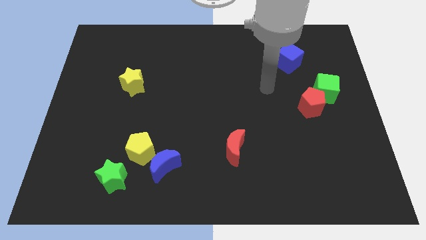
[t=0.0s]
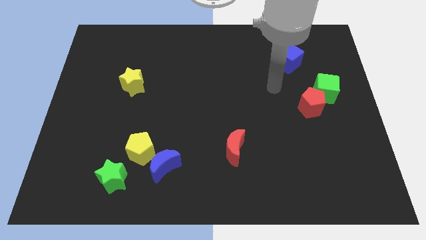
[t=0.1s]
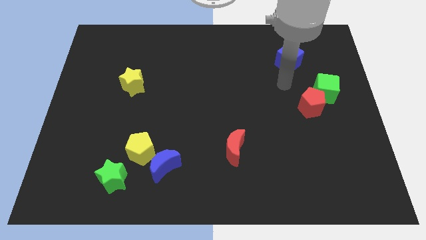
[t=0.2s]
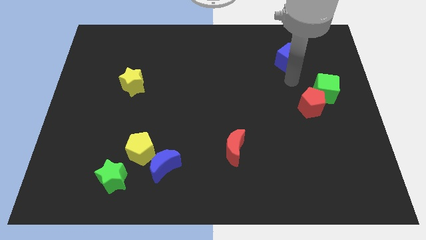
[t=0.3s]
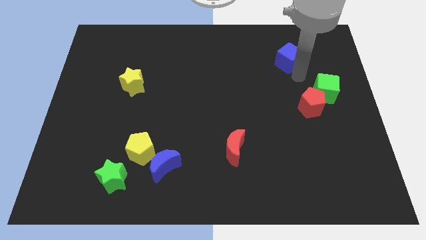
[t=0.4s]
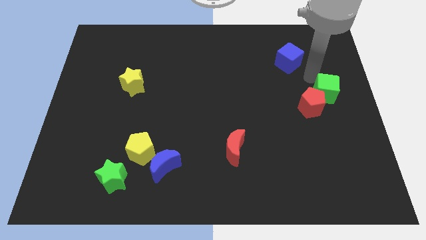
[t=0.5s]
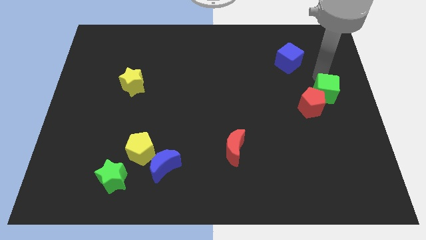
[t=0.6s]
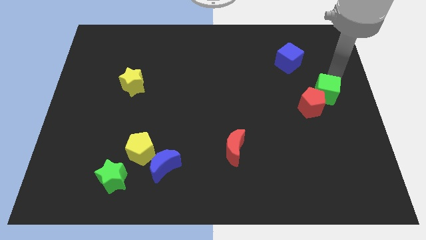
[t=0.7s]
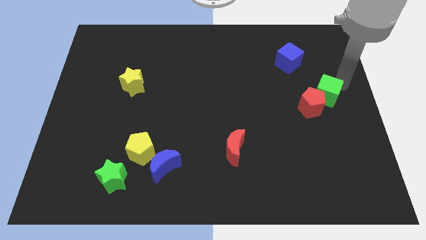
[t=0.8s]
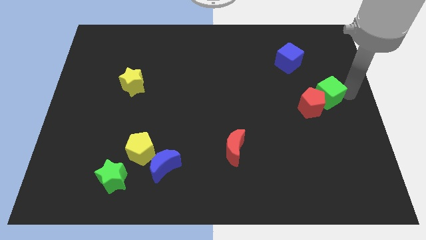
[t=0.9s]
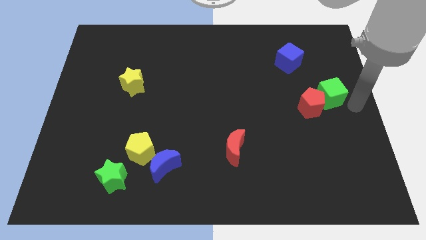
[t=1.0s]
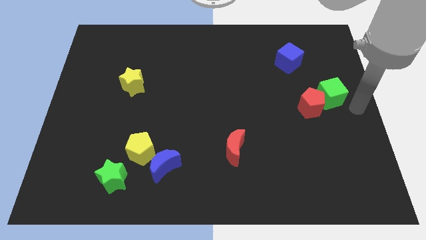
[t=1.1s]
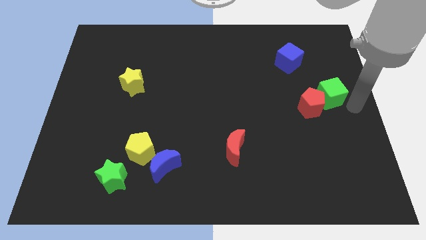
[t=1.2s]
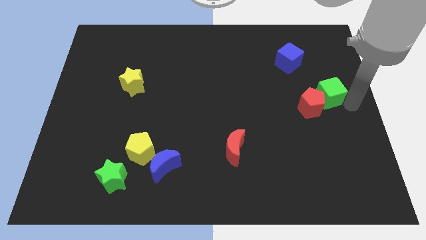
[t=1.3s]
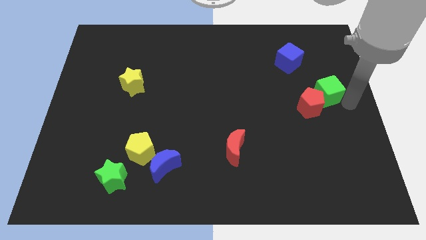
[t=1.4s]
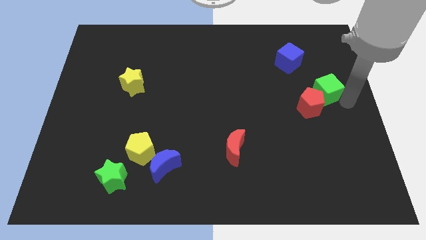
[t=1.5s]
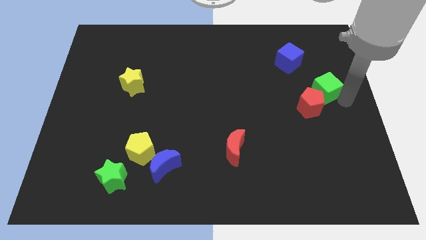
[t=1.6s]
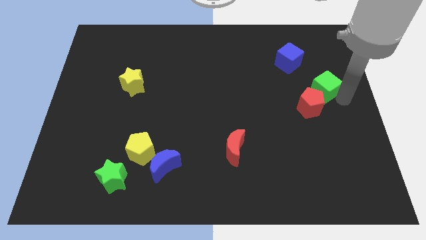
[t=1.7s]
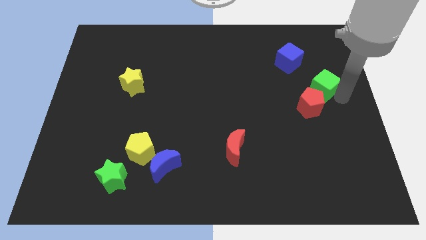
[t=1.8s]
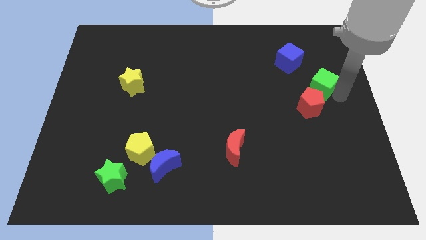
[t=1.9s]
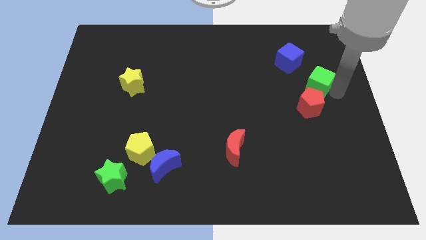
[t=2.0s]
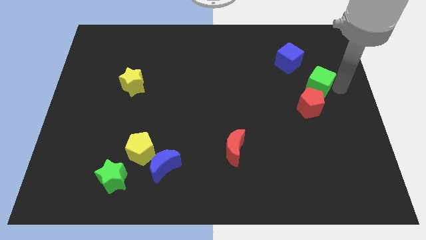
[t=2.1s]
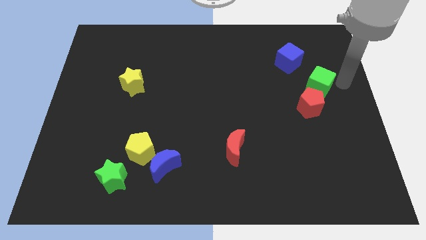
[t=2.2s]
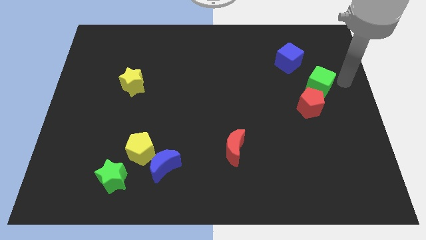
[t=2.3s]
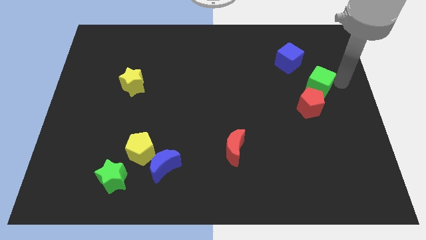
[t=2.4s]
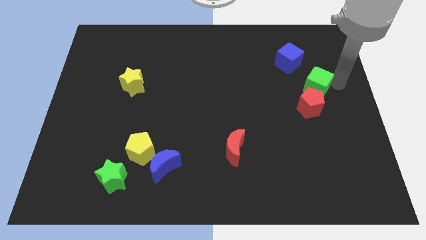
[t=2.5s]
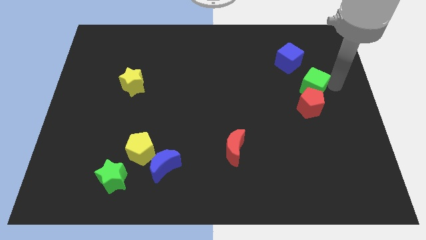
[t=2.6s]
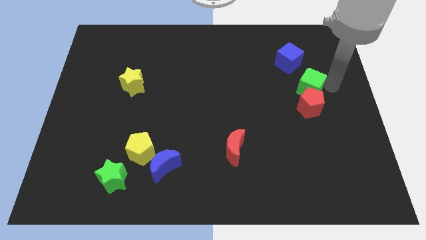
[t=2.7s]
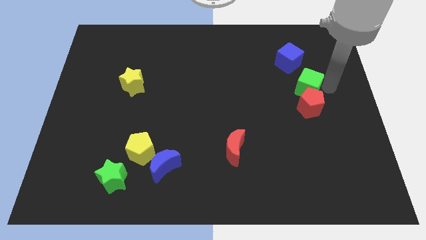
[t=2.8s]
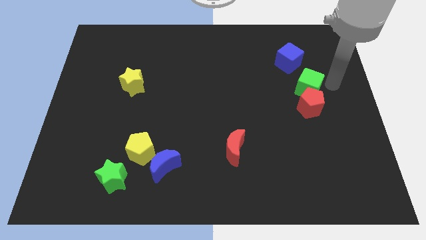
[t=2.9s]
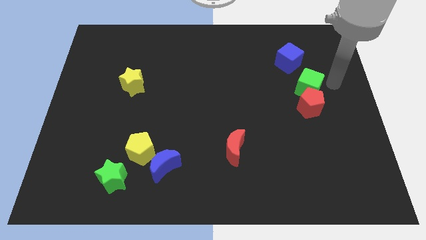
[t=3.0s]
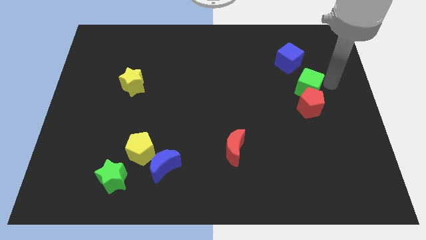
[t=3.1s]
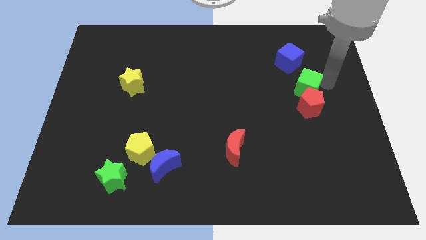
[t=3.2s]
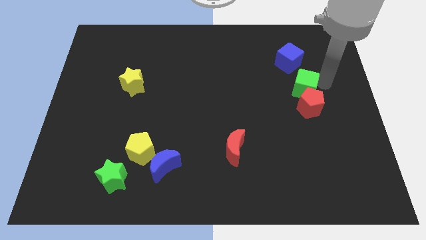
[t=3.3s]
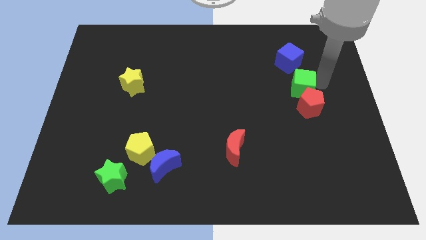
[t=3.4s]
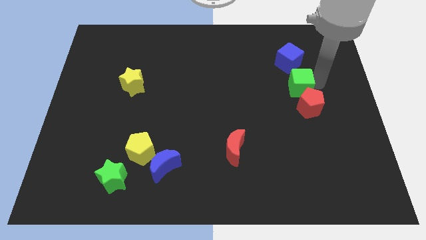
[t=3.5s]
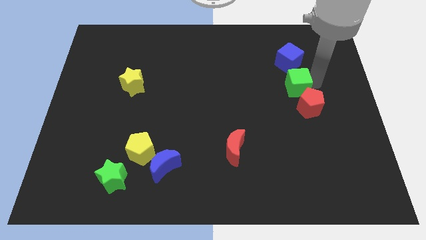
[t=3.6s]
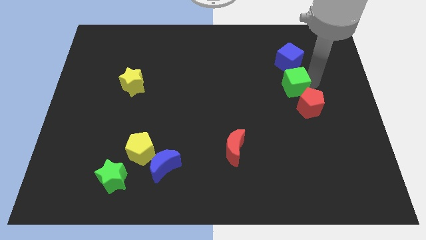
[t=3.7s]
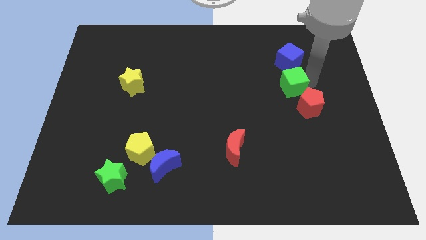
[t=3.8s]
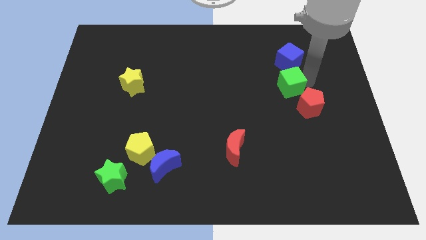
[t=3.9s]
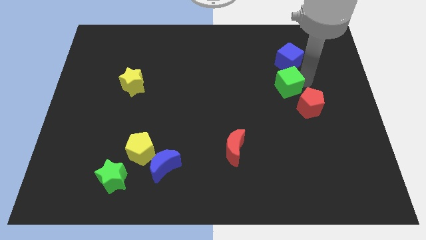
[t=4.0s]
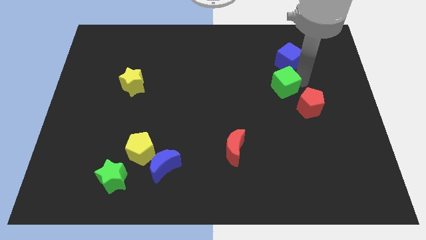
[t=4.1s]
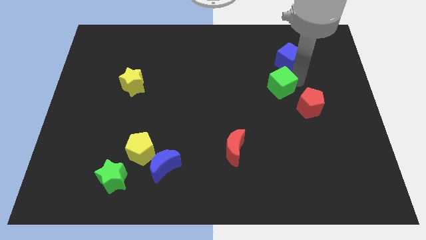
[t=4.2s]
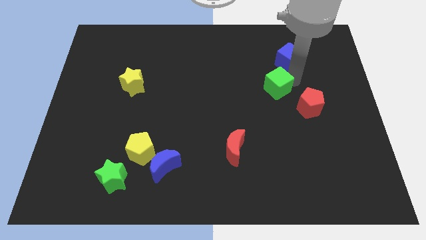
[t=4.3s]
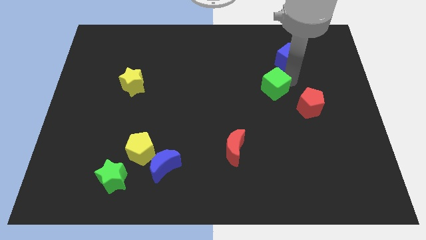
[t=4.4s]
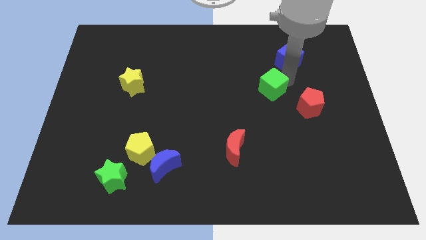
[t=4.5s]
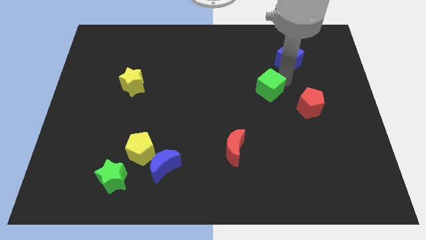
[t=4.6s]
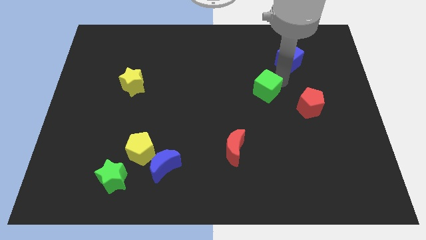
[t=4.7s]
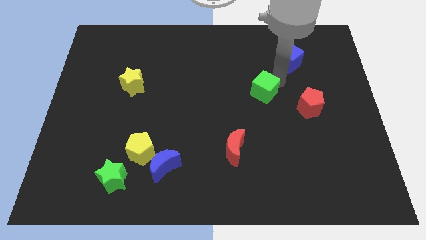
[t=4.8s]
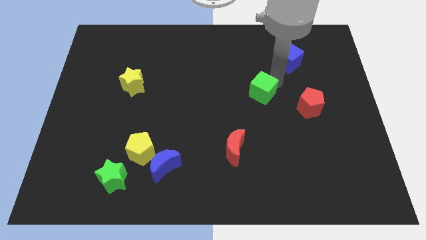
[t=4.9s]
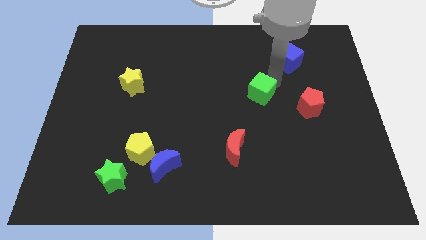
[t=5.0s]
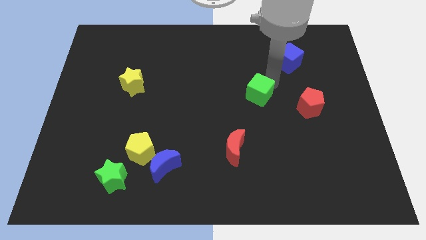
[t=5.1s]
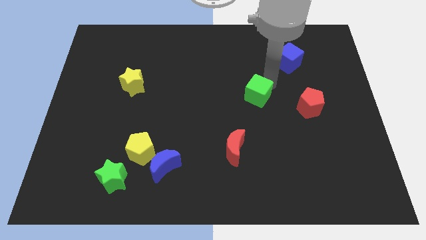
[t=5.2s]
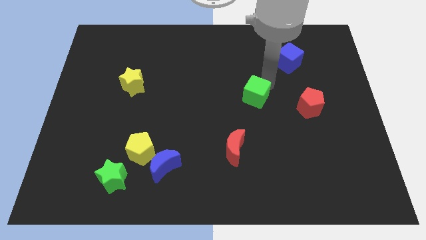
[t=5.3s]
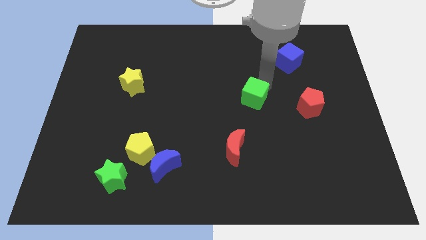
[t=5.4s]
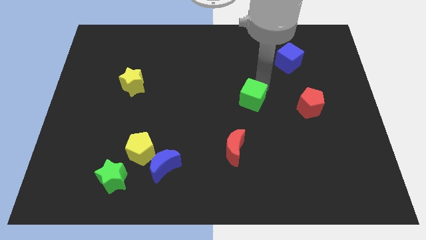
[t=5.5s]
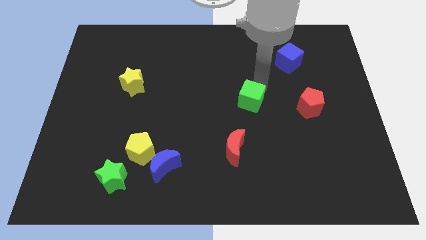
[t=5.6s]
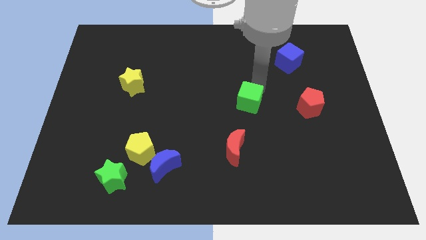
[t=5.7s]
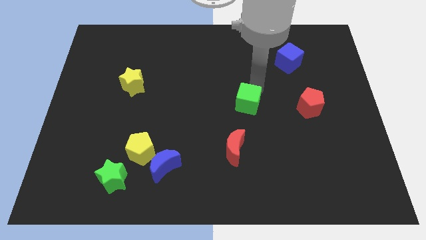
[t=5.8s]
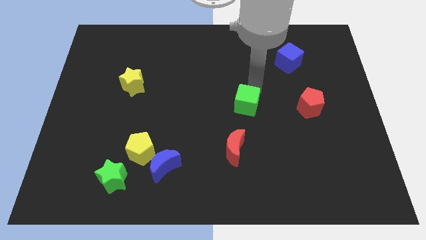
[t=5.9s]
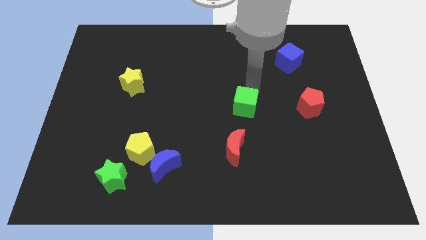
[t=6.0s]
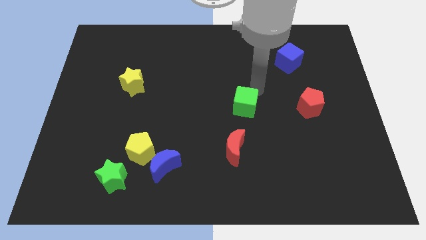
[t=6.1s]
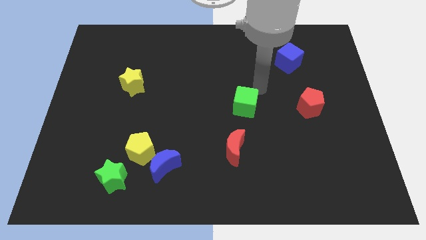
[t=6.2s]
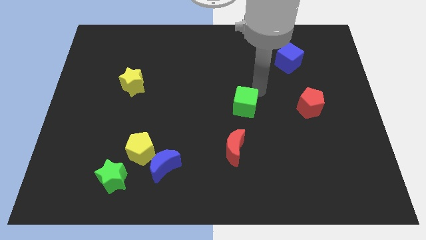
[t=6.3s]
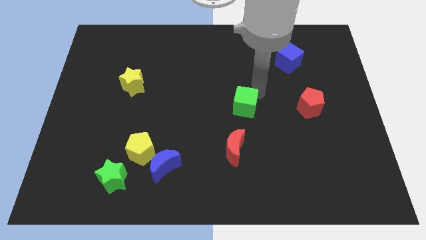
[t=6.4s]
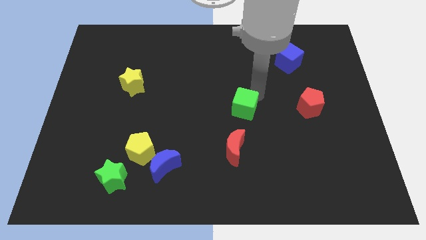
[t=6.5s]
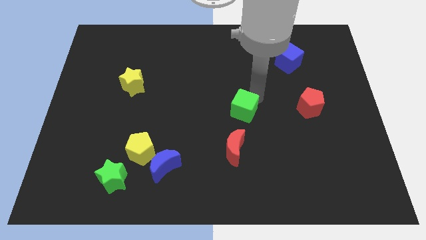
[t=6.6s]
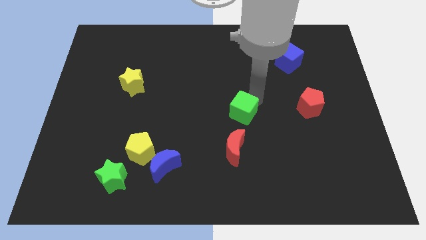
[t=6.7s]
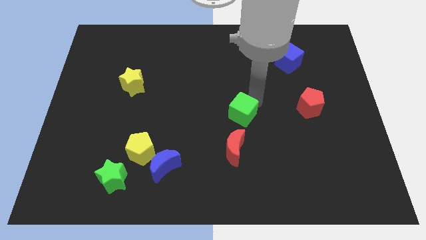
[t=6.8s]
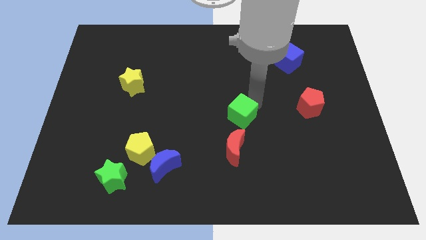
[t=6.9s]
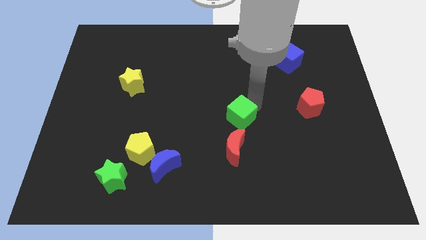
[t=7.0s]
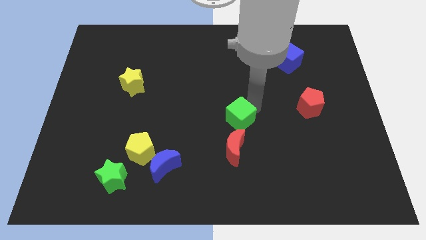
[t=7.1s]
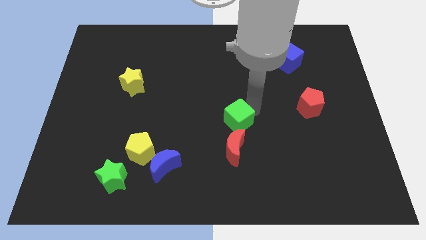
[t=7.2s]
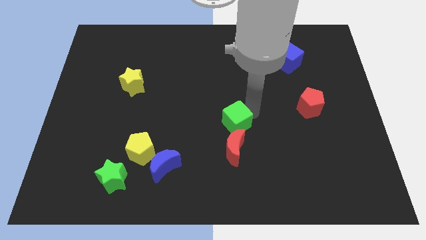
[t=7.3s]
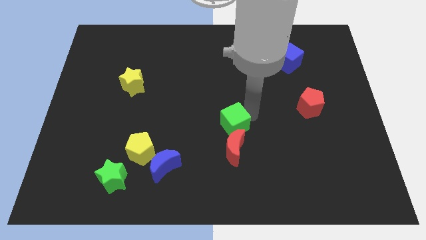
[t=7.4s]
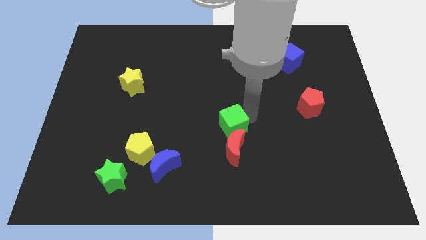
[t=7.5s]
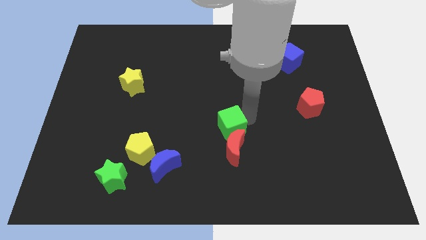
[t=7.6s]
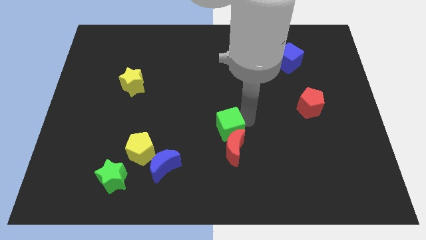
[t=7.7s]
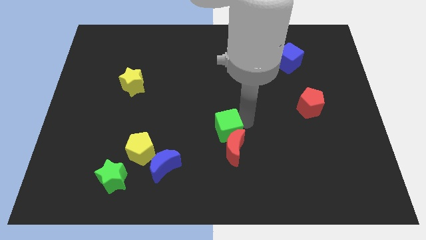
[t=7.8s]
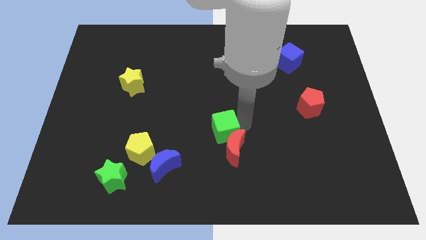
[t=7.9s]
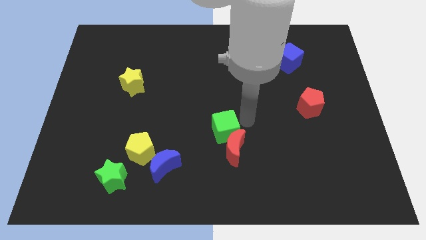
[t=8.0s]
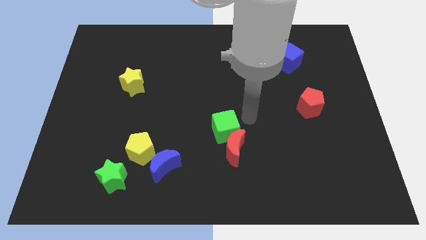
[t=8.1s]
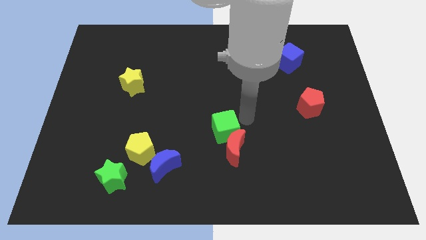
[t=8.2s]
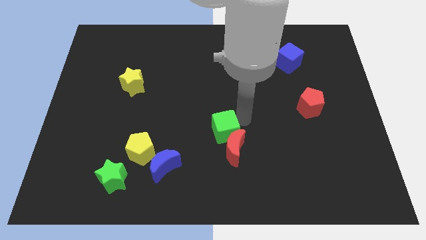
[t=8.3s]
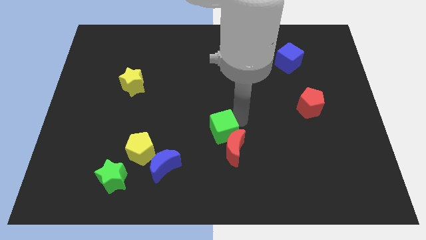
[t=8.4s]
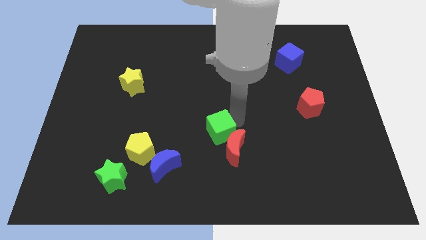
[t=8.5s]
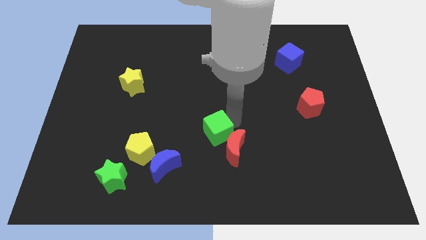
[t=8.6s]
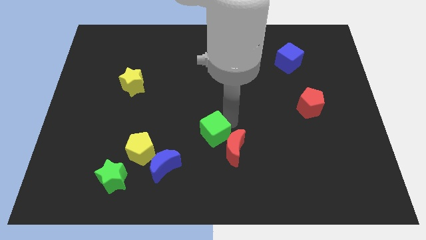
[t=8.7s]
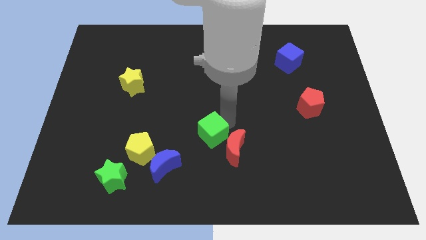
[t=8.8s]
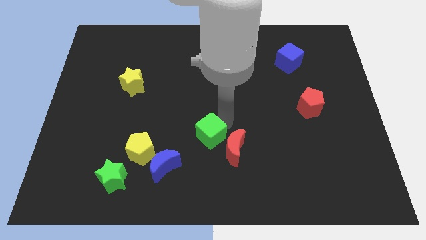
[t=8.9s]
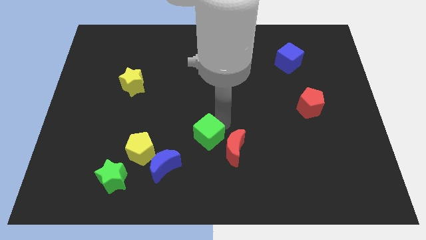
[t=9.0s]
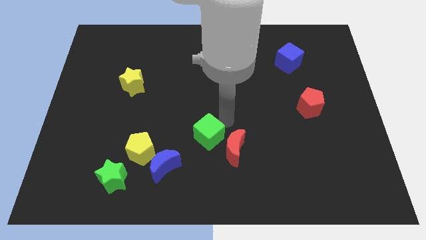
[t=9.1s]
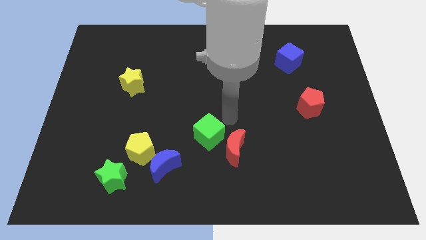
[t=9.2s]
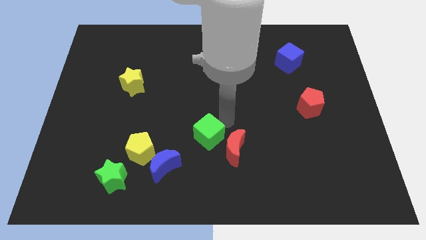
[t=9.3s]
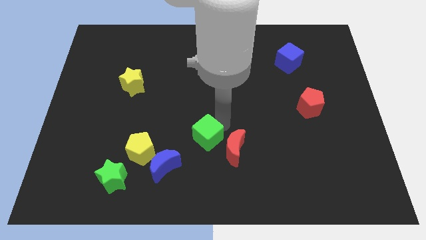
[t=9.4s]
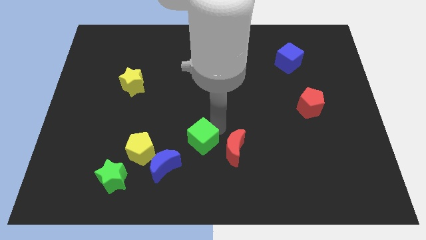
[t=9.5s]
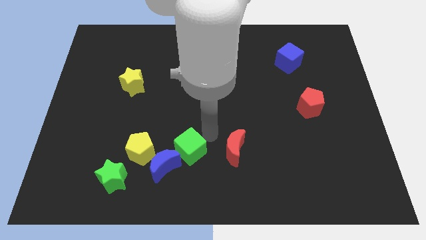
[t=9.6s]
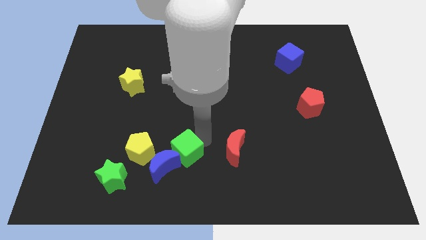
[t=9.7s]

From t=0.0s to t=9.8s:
move the green cube close to the blue moon
